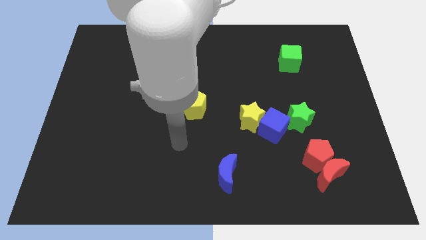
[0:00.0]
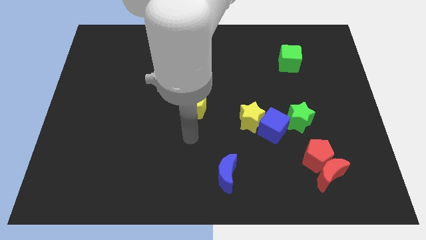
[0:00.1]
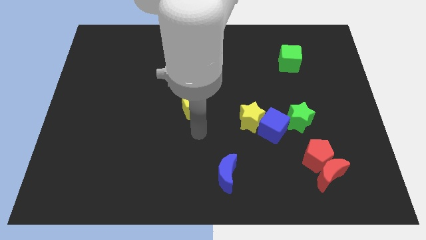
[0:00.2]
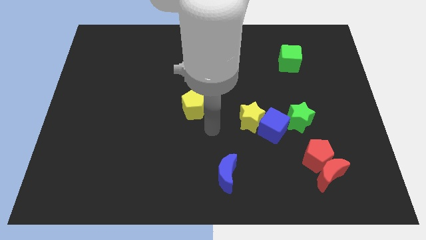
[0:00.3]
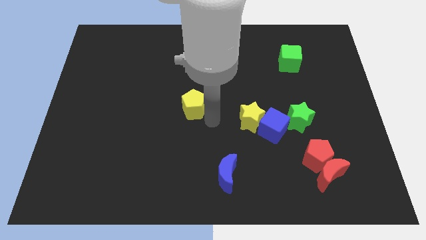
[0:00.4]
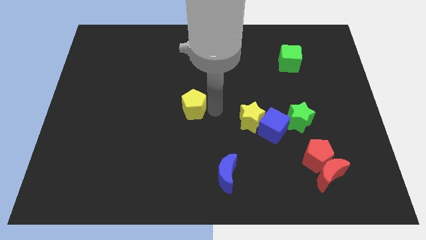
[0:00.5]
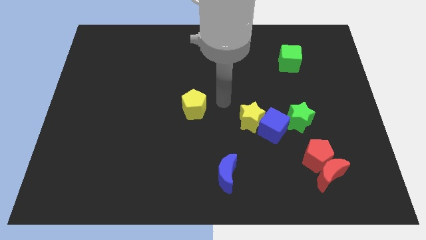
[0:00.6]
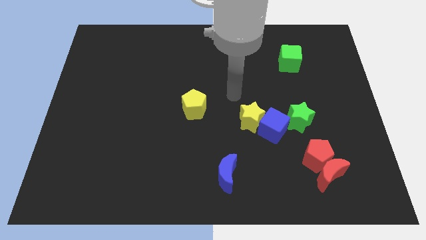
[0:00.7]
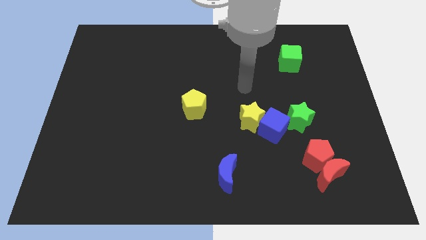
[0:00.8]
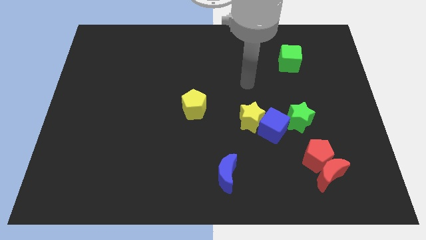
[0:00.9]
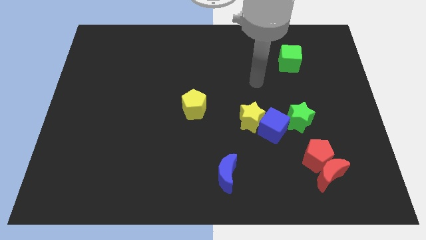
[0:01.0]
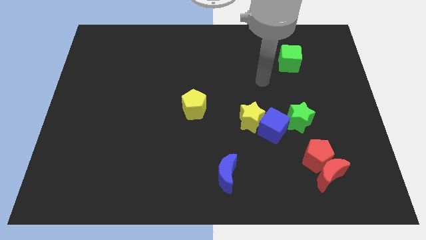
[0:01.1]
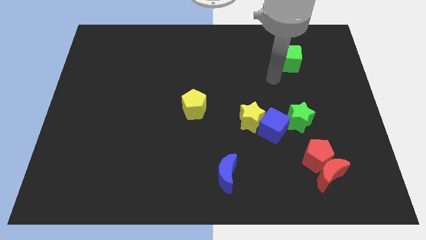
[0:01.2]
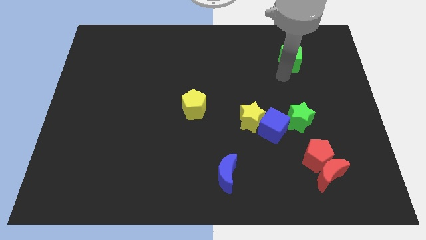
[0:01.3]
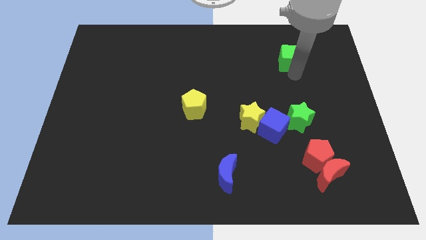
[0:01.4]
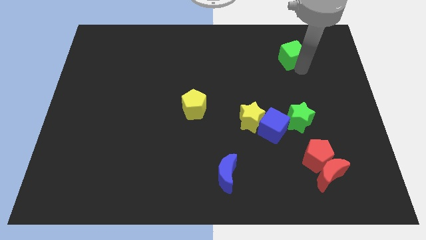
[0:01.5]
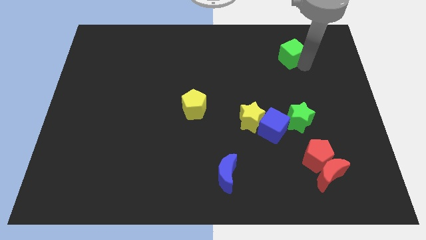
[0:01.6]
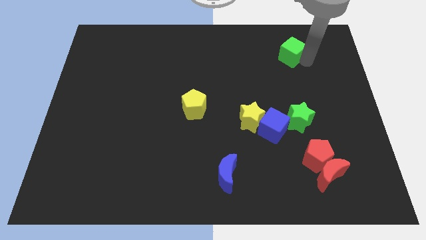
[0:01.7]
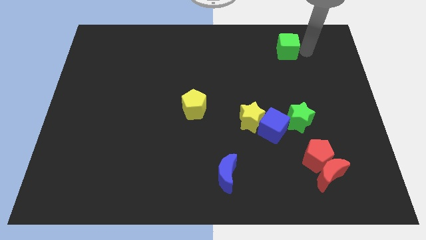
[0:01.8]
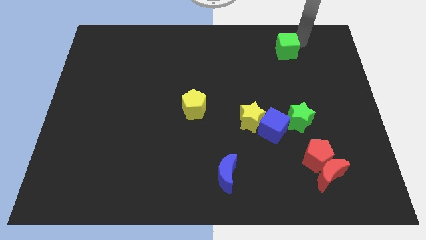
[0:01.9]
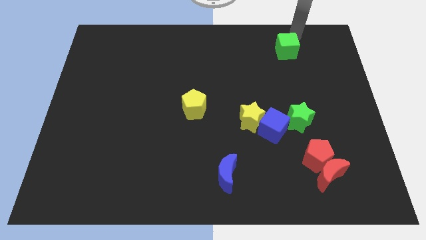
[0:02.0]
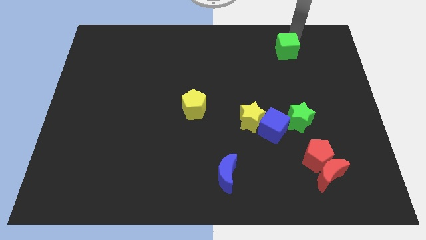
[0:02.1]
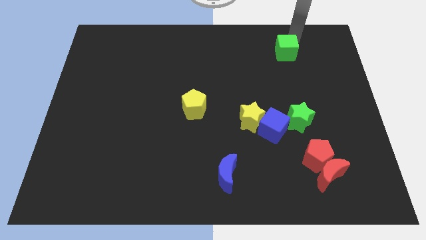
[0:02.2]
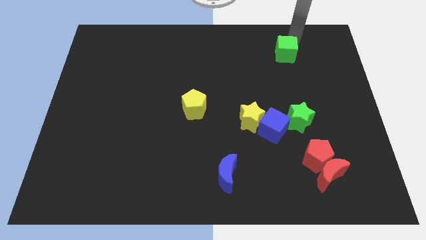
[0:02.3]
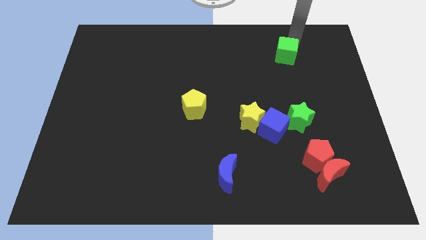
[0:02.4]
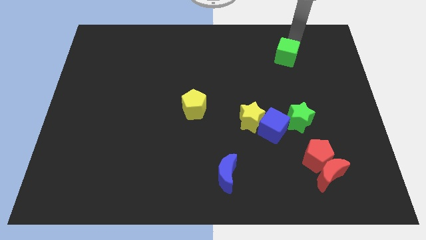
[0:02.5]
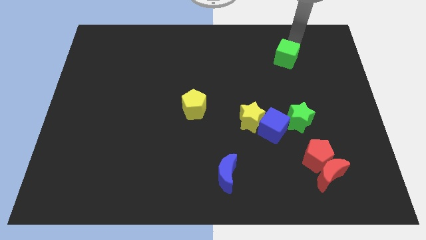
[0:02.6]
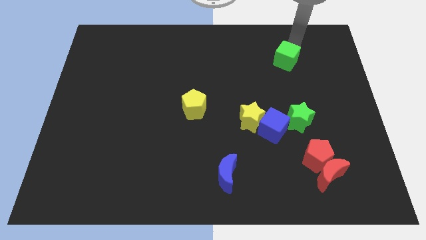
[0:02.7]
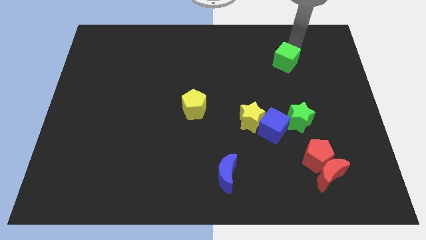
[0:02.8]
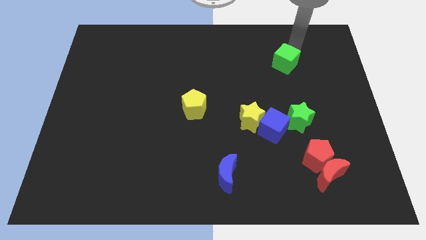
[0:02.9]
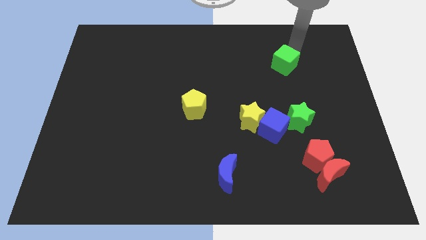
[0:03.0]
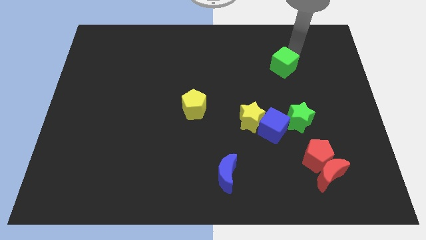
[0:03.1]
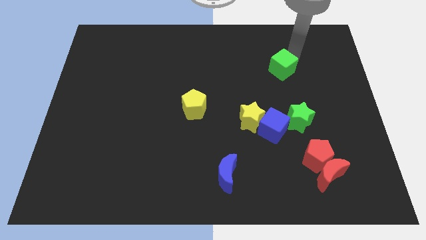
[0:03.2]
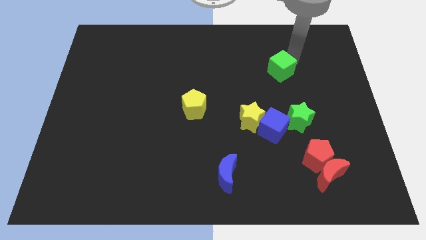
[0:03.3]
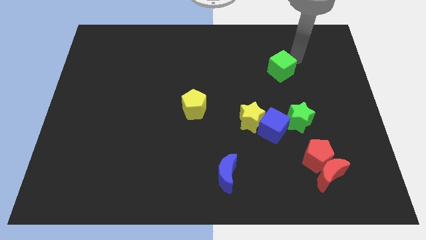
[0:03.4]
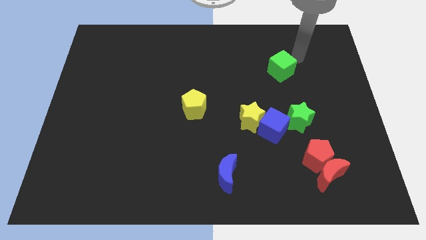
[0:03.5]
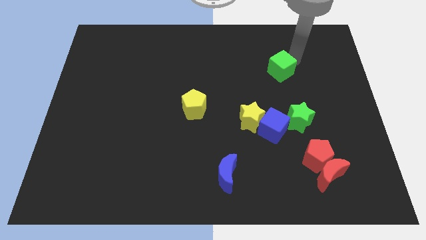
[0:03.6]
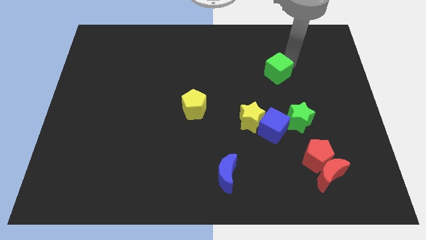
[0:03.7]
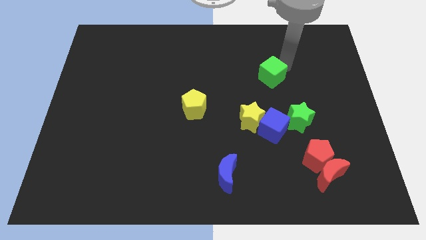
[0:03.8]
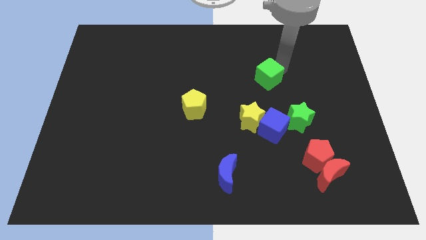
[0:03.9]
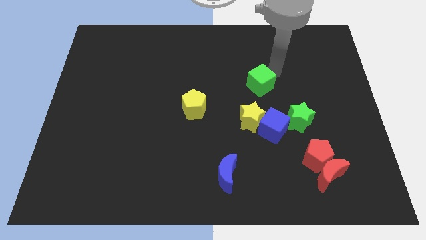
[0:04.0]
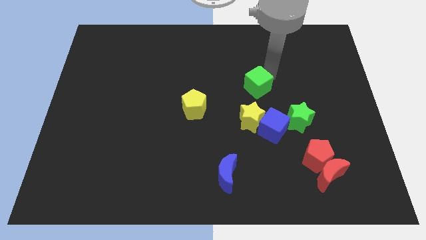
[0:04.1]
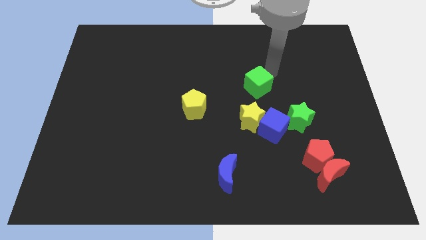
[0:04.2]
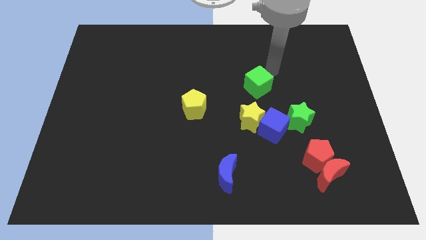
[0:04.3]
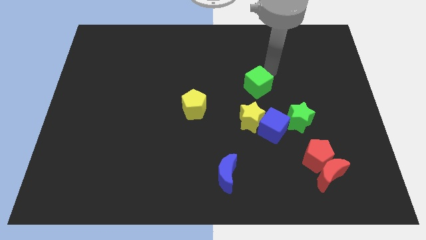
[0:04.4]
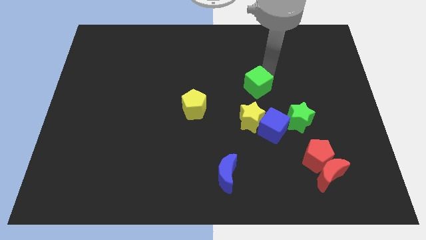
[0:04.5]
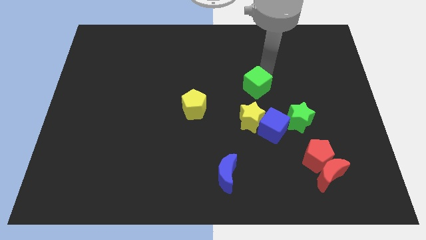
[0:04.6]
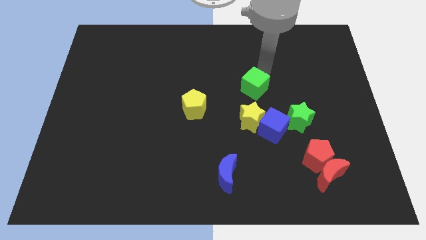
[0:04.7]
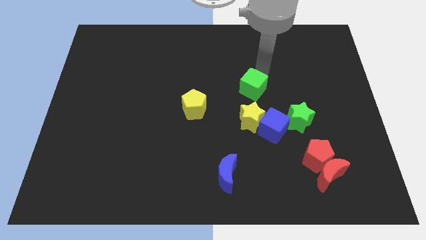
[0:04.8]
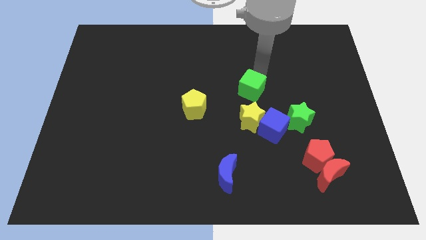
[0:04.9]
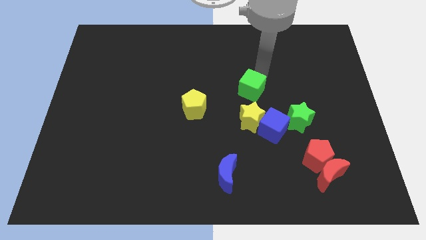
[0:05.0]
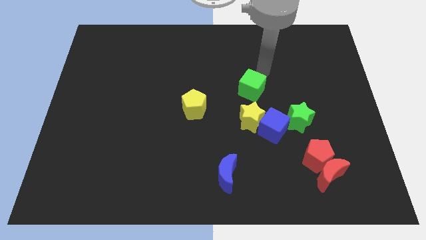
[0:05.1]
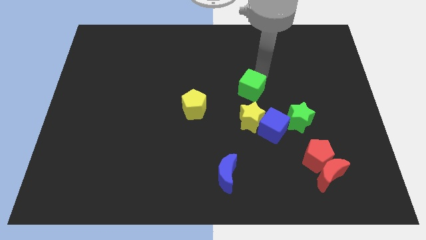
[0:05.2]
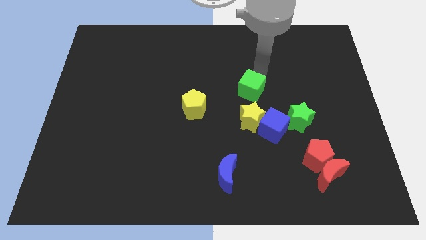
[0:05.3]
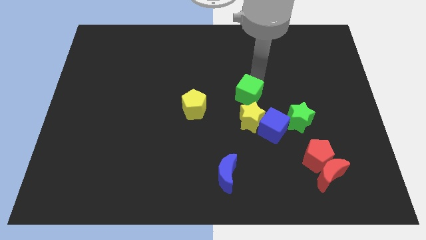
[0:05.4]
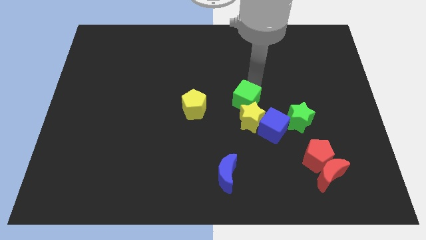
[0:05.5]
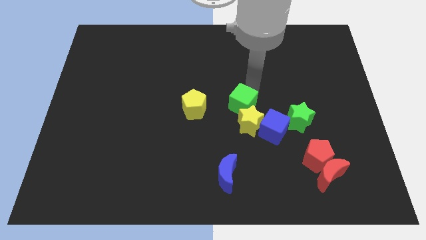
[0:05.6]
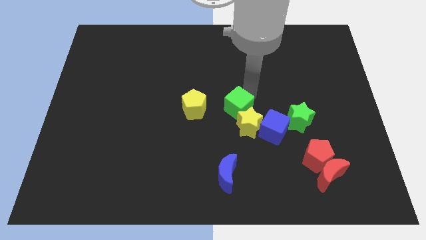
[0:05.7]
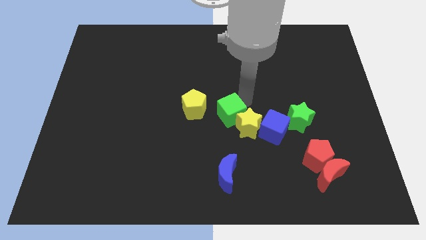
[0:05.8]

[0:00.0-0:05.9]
slide the green cube left of the yellow star

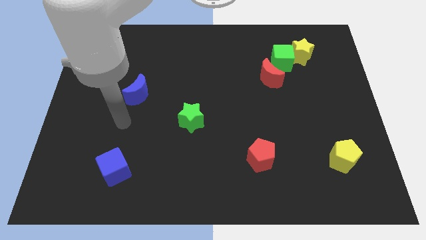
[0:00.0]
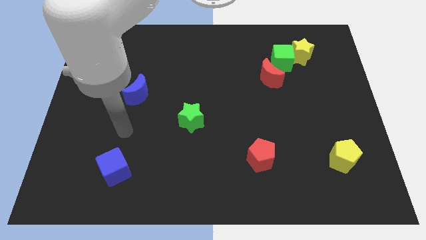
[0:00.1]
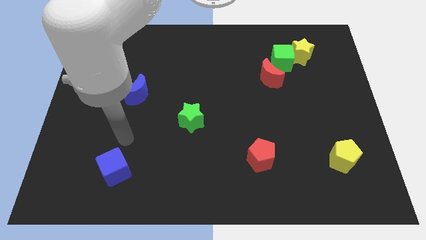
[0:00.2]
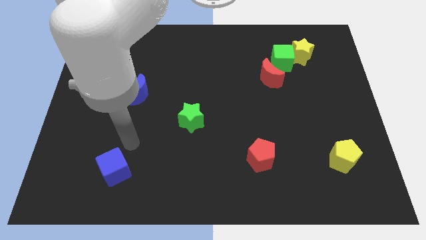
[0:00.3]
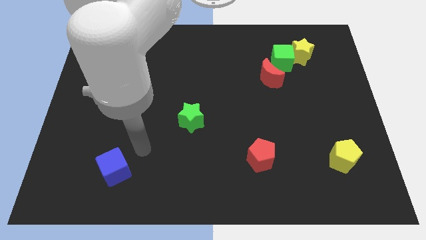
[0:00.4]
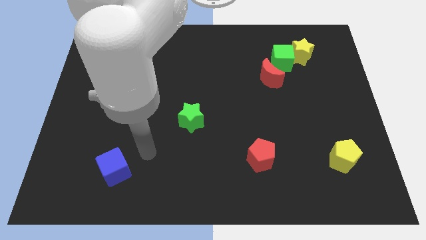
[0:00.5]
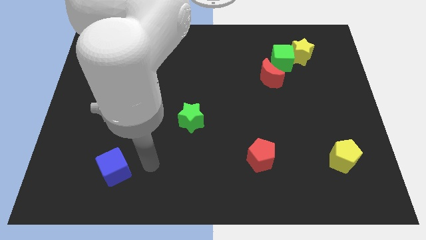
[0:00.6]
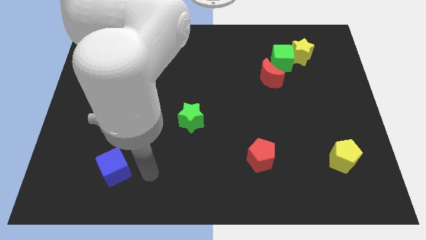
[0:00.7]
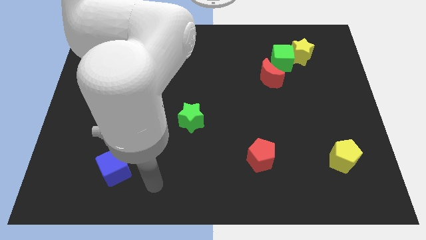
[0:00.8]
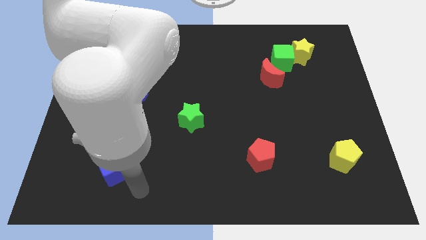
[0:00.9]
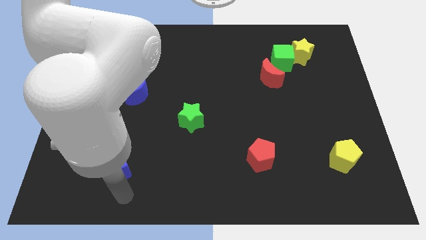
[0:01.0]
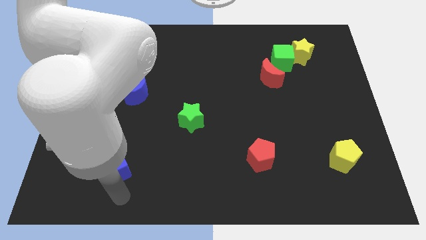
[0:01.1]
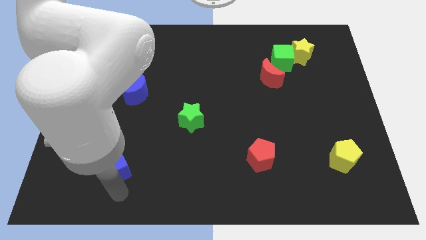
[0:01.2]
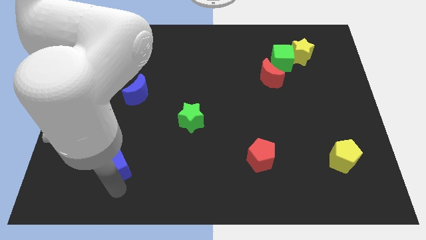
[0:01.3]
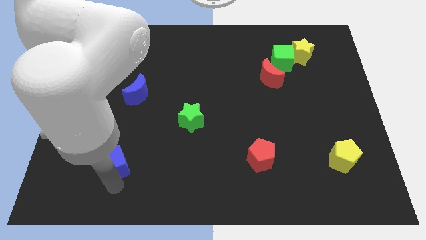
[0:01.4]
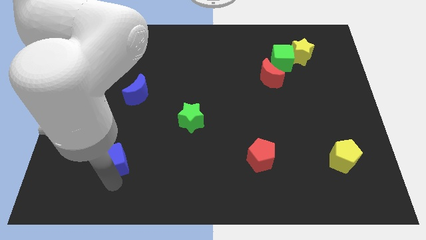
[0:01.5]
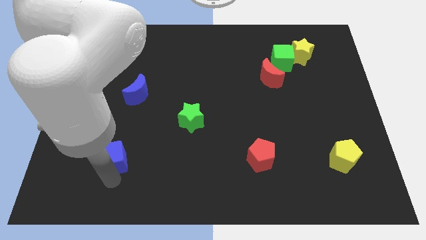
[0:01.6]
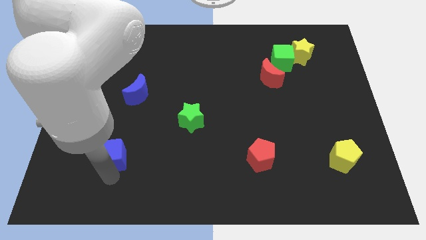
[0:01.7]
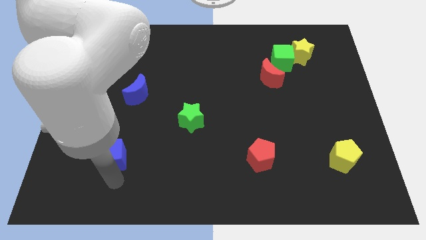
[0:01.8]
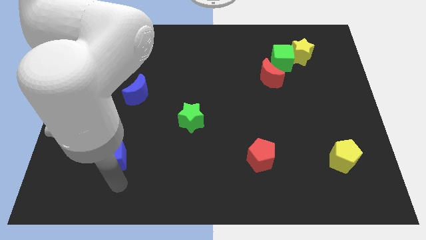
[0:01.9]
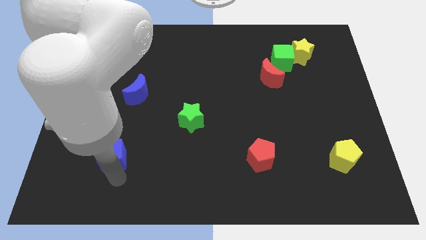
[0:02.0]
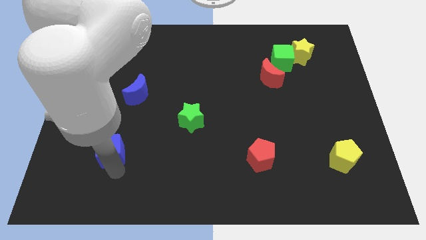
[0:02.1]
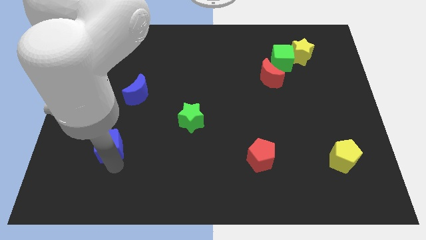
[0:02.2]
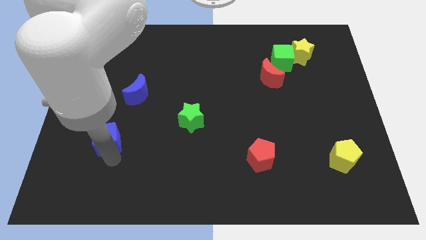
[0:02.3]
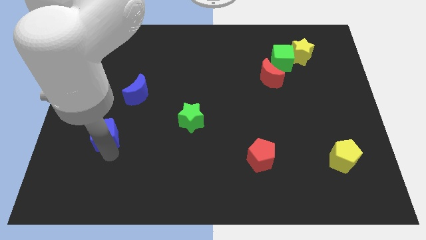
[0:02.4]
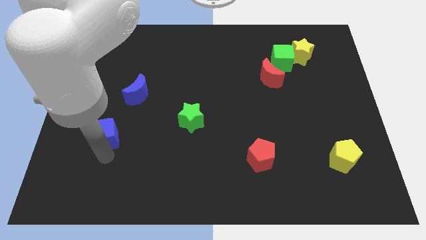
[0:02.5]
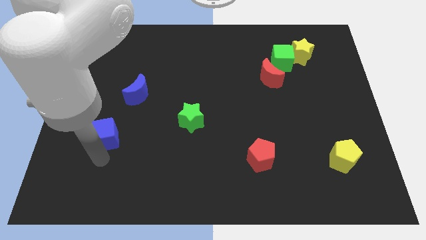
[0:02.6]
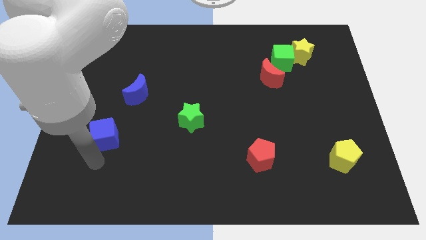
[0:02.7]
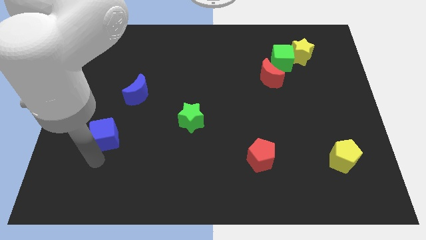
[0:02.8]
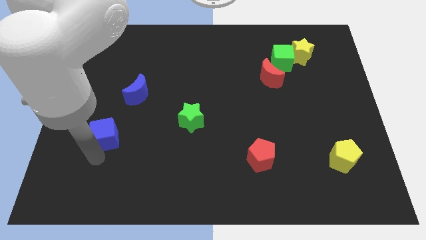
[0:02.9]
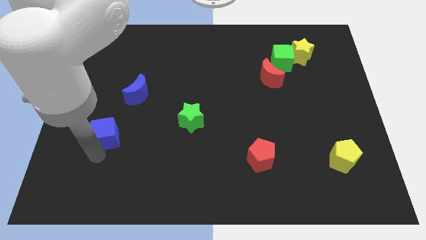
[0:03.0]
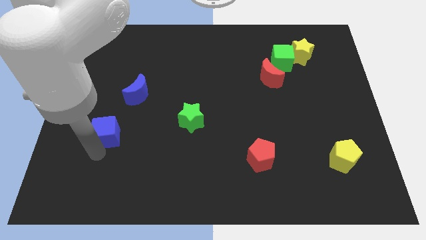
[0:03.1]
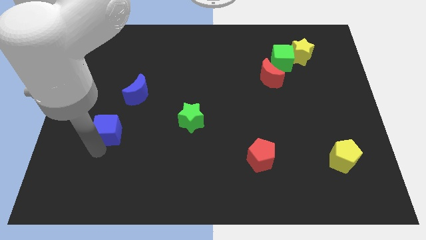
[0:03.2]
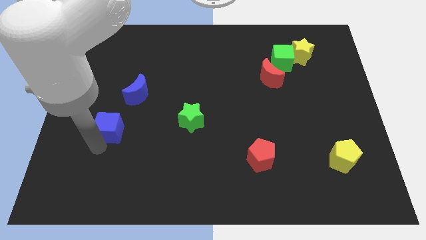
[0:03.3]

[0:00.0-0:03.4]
push the blue cube to the bottom left side of the blue moon
